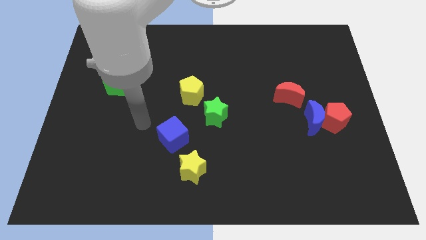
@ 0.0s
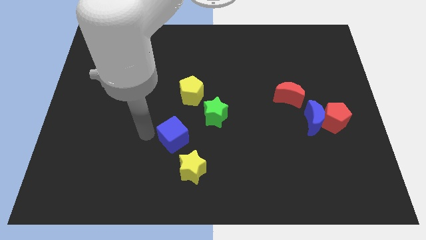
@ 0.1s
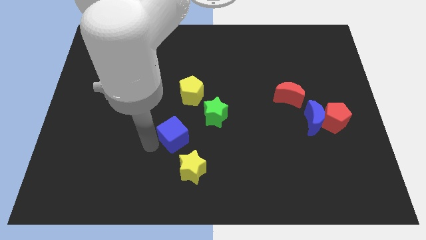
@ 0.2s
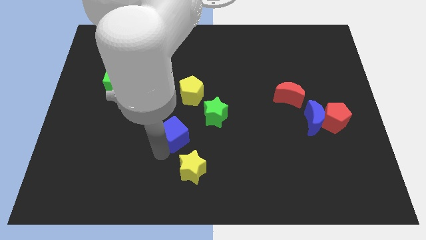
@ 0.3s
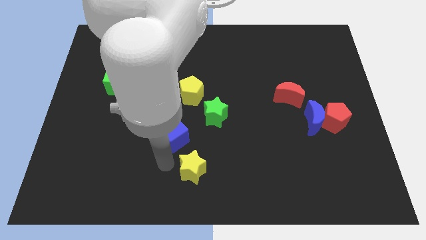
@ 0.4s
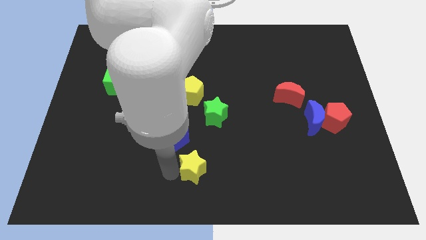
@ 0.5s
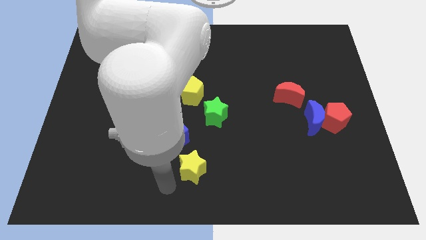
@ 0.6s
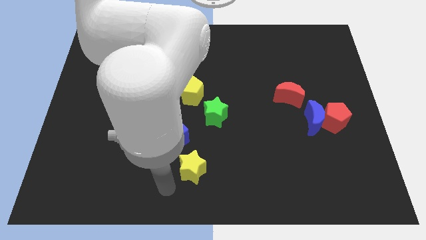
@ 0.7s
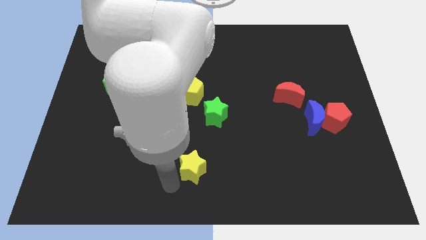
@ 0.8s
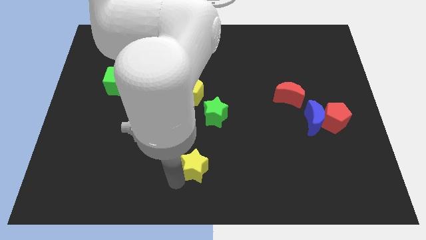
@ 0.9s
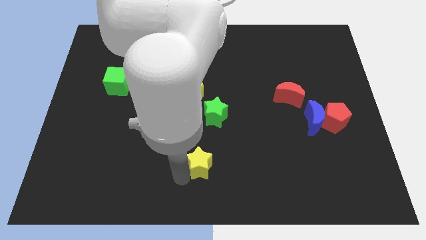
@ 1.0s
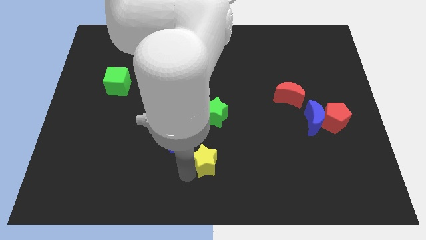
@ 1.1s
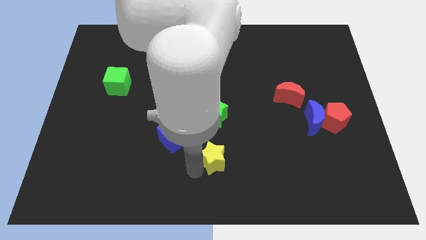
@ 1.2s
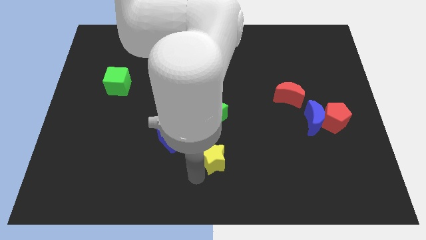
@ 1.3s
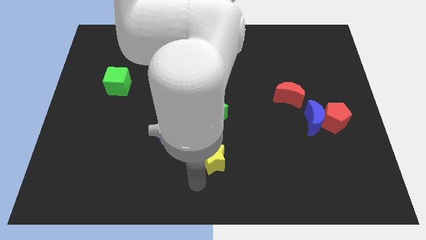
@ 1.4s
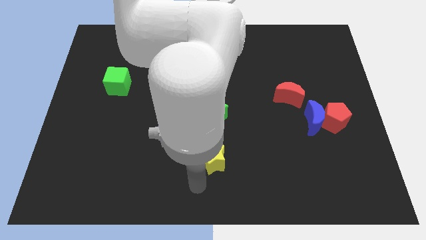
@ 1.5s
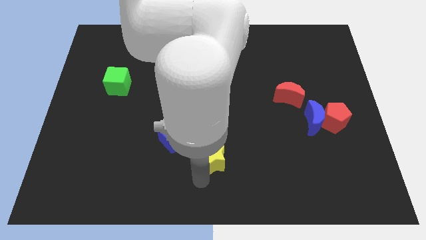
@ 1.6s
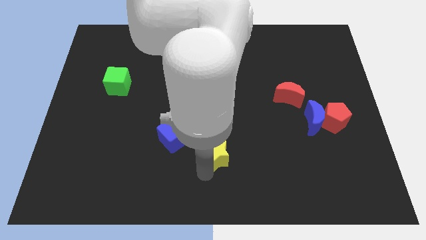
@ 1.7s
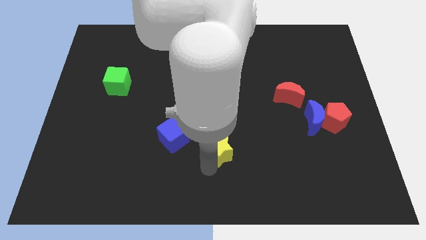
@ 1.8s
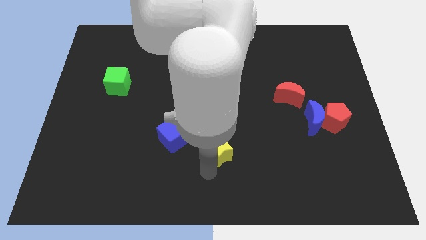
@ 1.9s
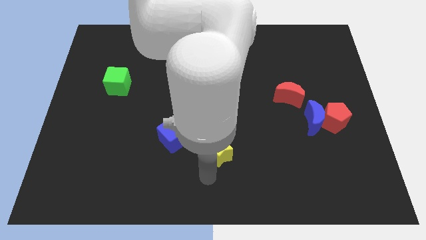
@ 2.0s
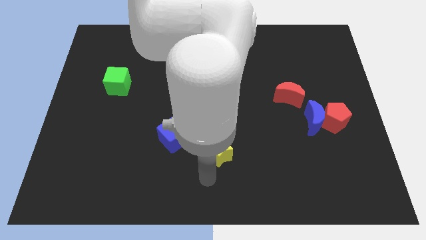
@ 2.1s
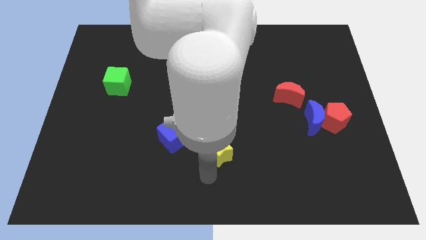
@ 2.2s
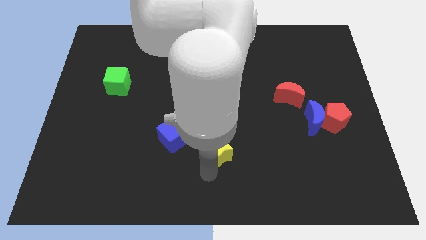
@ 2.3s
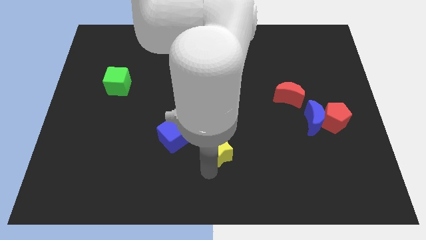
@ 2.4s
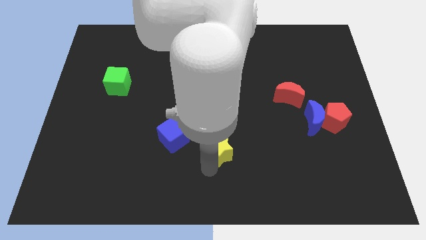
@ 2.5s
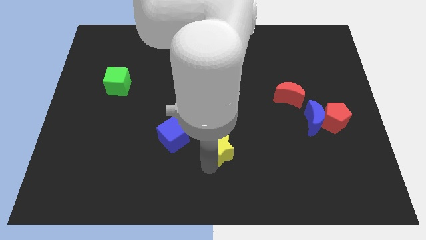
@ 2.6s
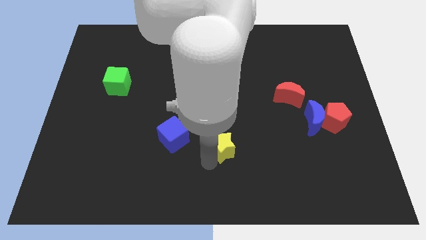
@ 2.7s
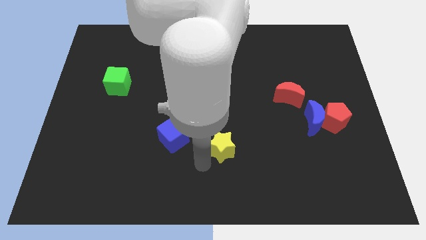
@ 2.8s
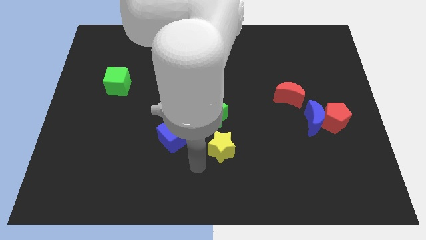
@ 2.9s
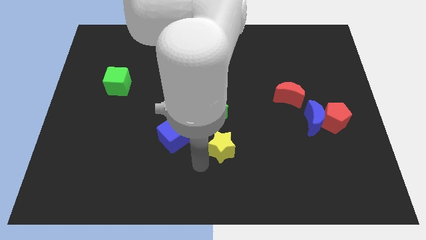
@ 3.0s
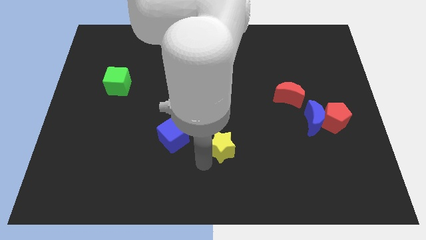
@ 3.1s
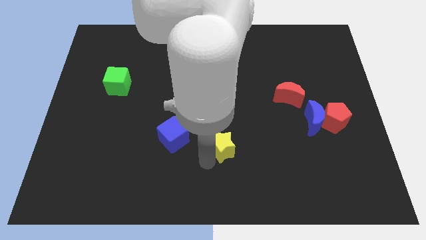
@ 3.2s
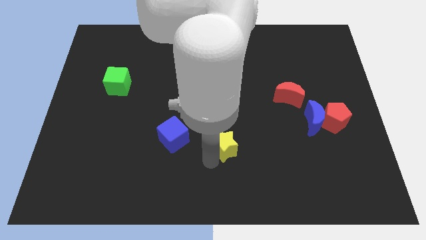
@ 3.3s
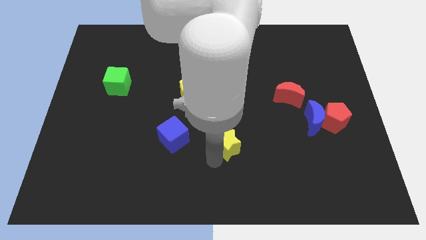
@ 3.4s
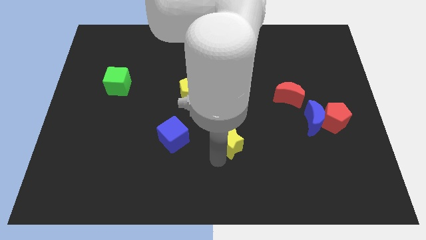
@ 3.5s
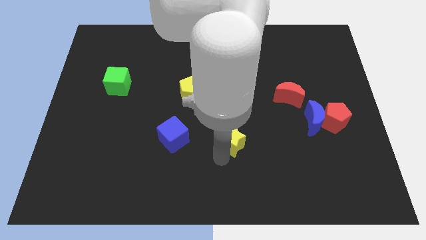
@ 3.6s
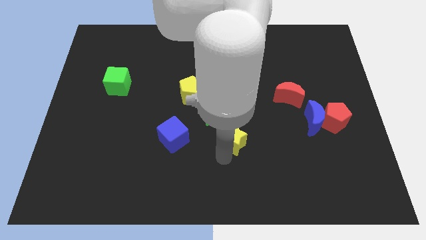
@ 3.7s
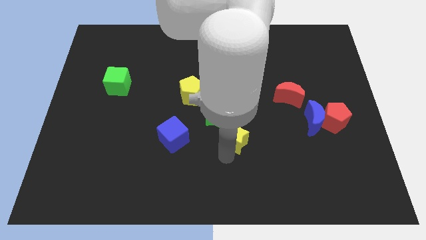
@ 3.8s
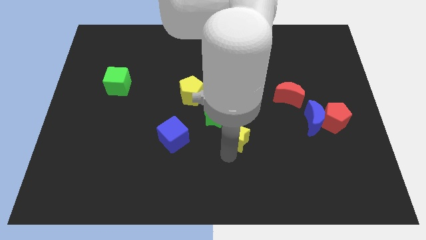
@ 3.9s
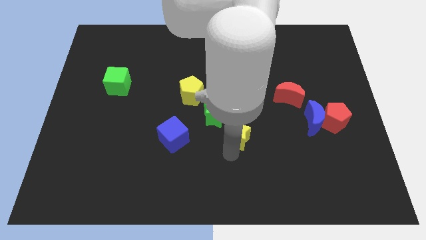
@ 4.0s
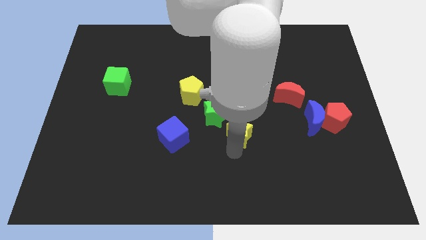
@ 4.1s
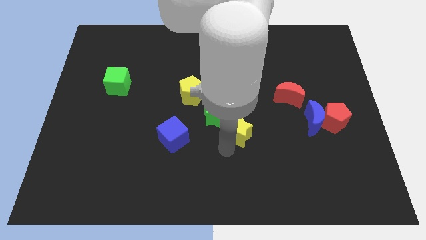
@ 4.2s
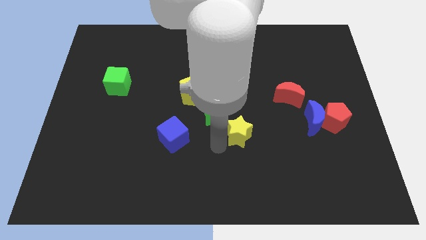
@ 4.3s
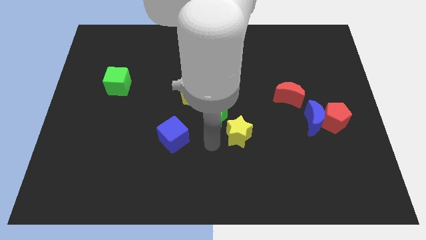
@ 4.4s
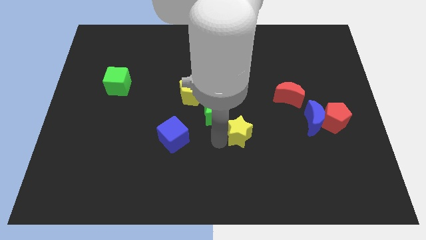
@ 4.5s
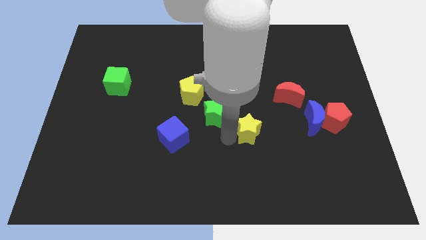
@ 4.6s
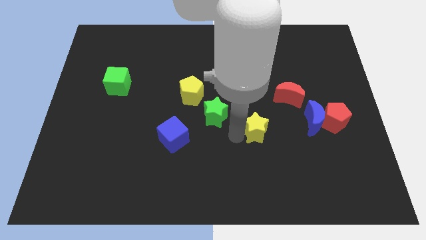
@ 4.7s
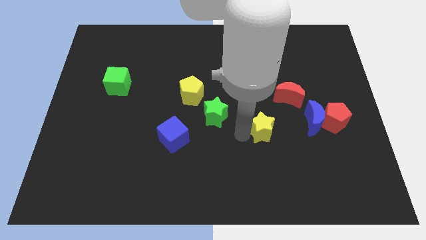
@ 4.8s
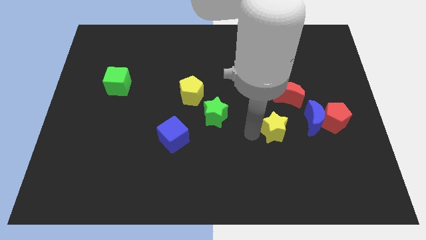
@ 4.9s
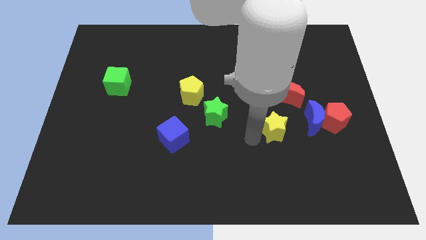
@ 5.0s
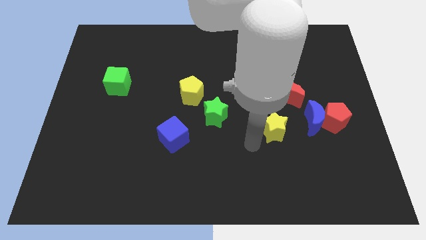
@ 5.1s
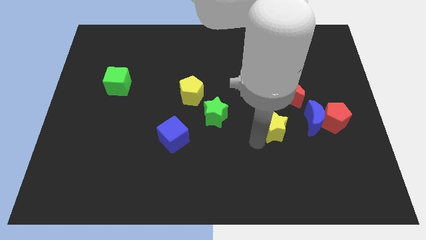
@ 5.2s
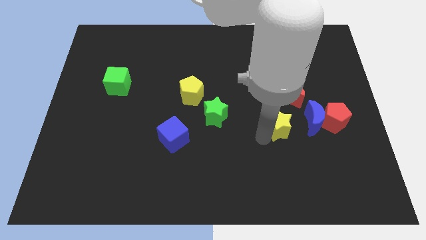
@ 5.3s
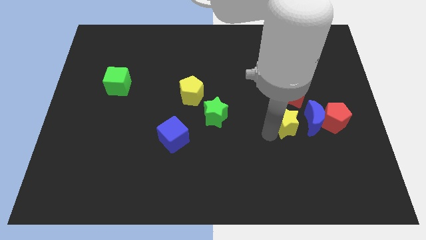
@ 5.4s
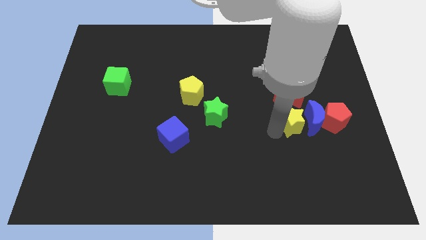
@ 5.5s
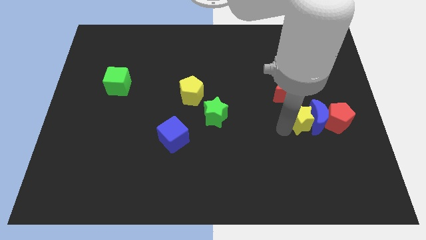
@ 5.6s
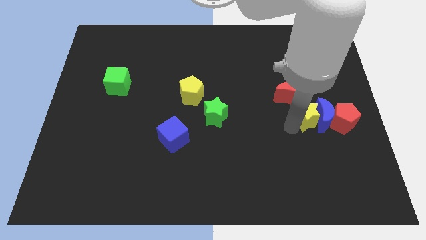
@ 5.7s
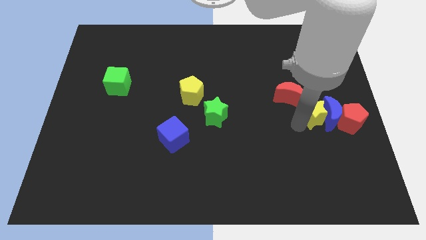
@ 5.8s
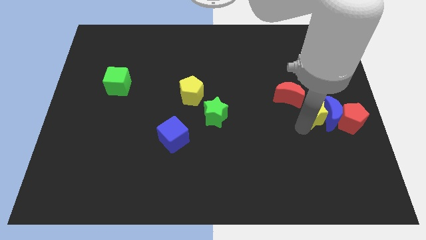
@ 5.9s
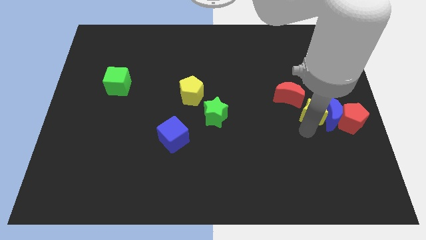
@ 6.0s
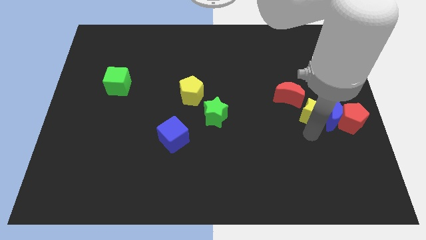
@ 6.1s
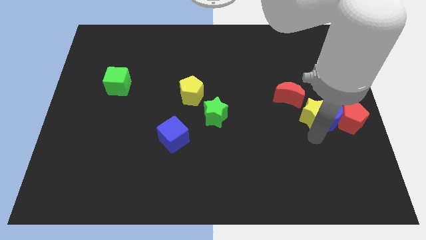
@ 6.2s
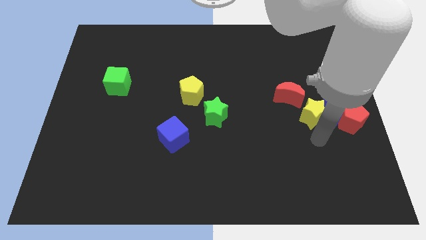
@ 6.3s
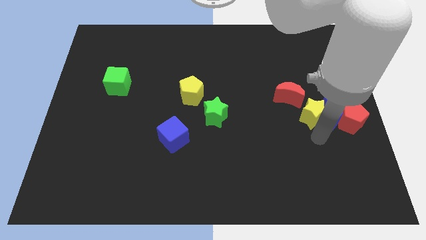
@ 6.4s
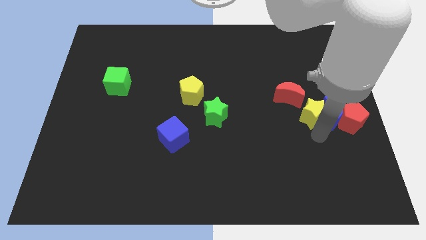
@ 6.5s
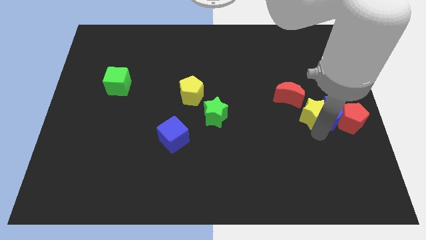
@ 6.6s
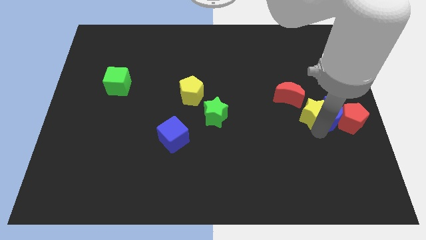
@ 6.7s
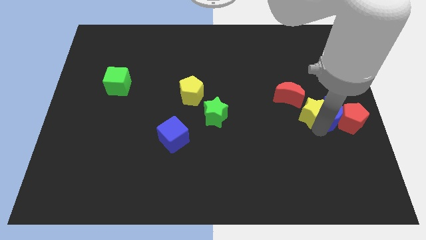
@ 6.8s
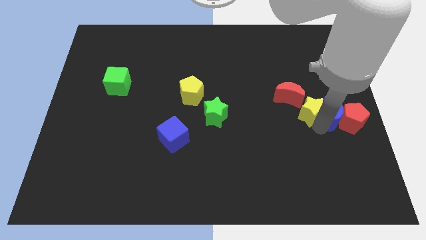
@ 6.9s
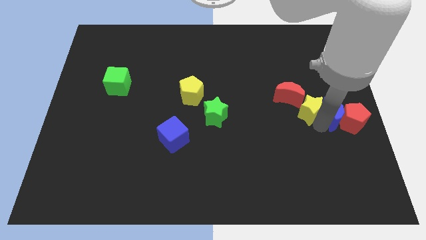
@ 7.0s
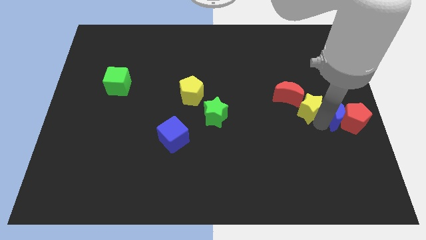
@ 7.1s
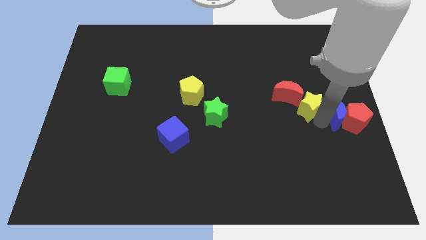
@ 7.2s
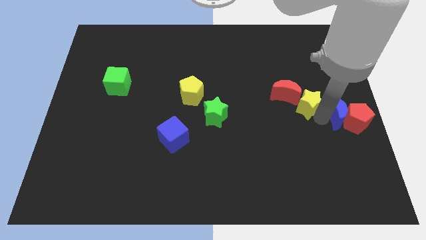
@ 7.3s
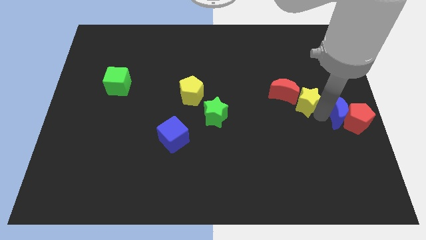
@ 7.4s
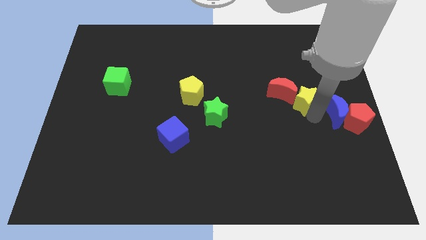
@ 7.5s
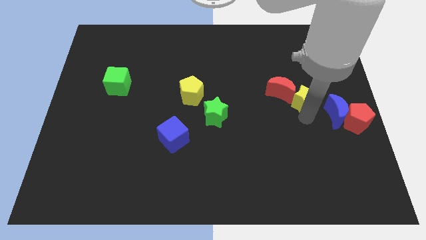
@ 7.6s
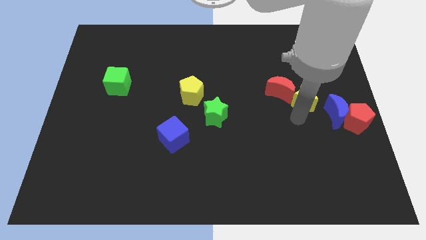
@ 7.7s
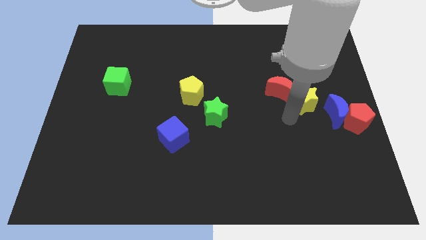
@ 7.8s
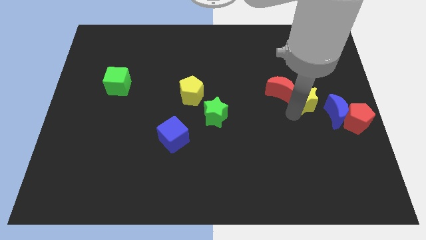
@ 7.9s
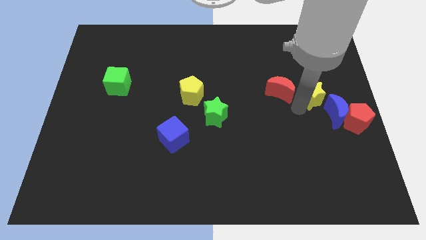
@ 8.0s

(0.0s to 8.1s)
slide the yellow star to the top side of the blue moon

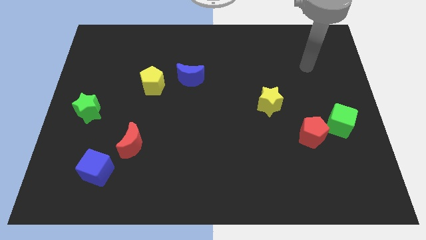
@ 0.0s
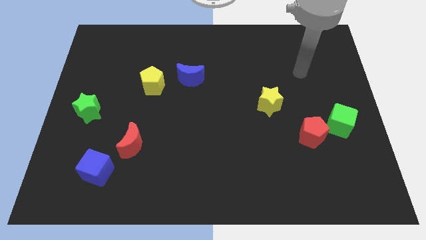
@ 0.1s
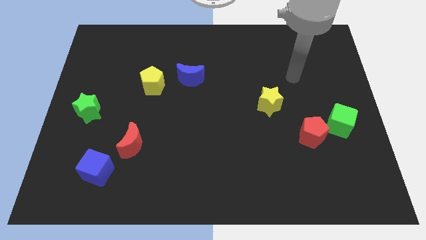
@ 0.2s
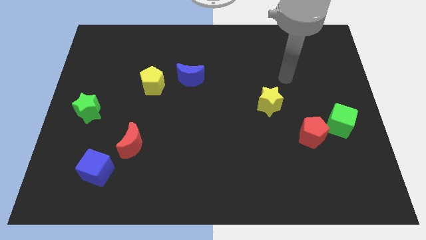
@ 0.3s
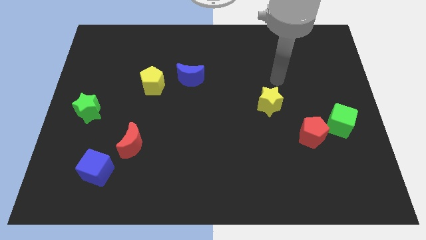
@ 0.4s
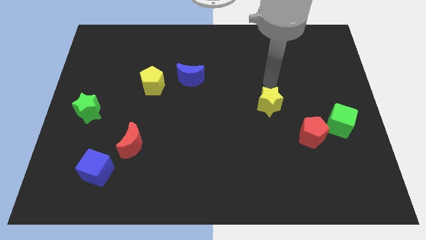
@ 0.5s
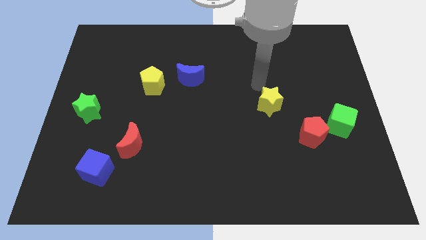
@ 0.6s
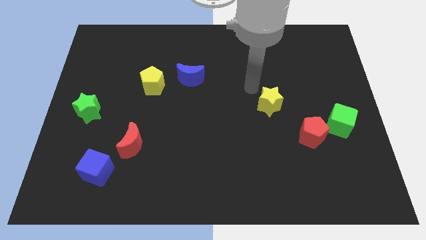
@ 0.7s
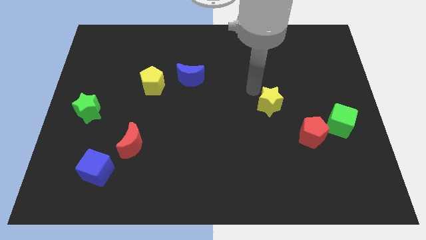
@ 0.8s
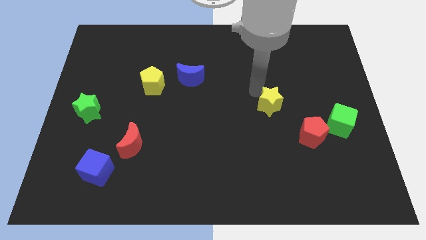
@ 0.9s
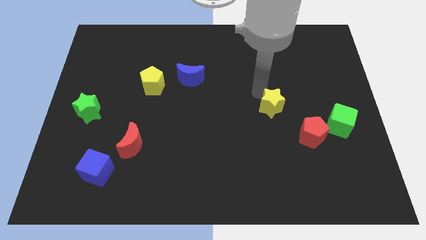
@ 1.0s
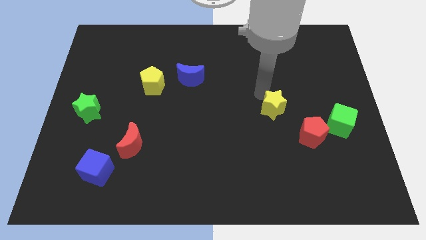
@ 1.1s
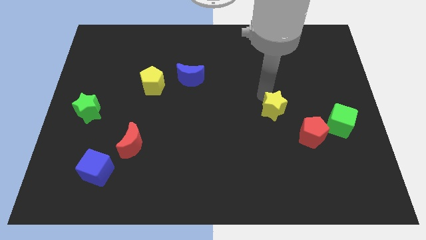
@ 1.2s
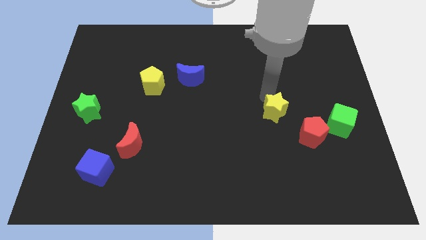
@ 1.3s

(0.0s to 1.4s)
move the yellow star to the left side of the green cube
